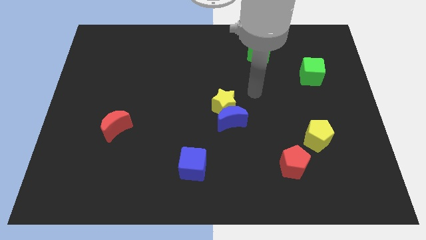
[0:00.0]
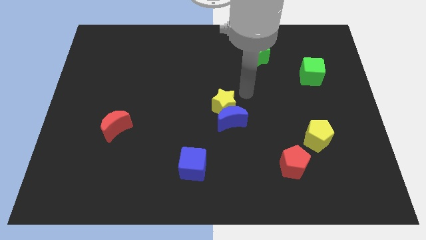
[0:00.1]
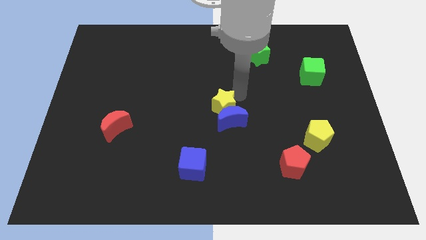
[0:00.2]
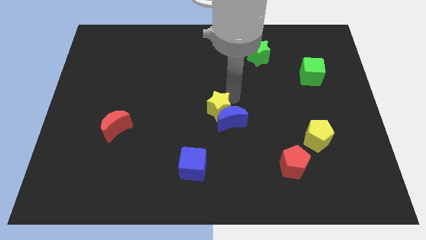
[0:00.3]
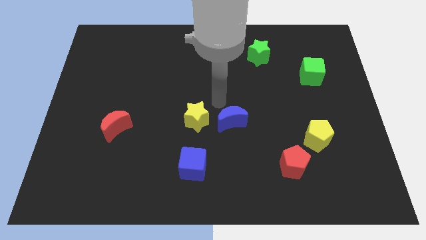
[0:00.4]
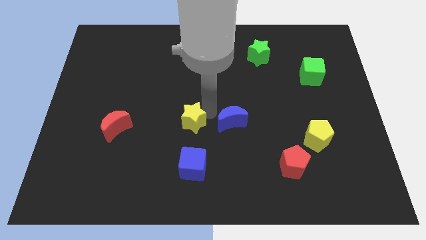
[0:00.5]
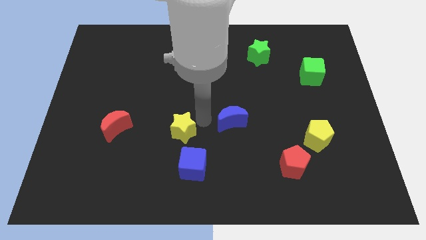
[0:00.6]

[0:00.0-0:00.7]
move the blue moon away from the yellow star

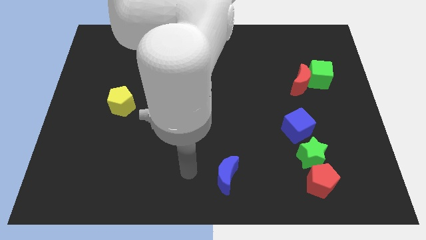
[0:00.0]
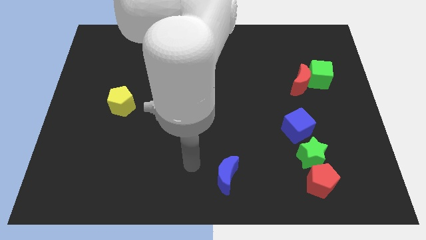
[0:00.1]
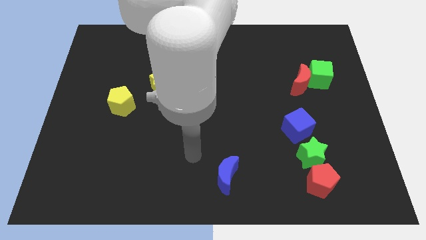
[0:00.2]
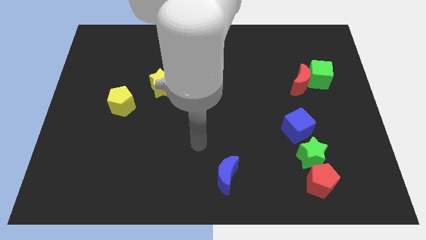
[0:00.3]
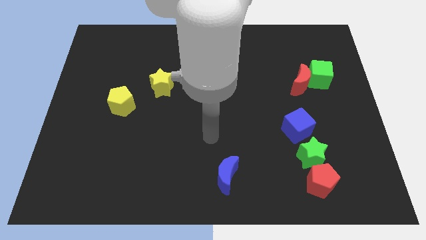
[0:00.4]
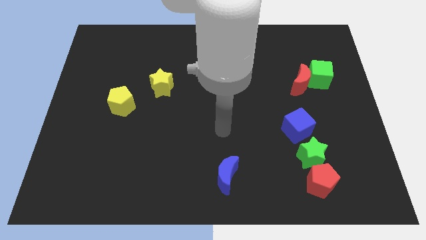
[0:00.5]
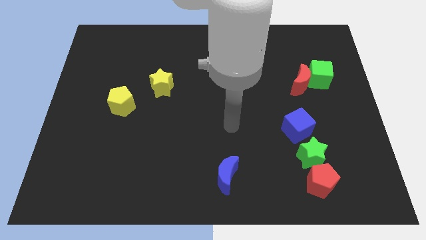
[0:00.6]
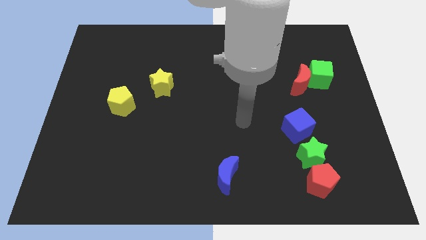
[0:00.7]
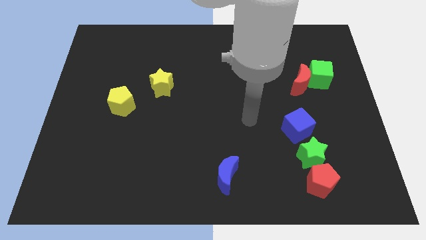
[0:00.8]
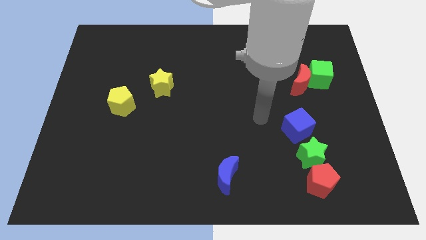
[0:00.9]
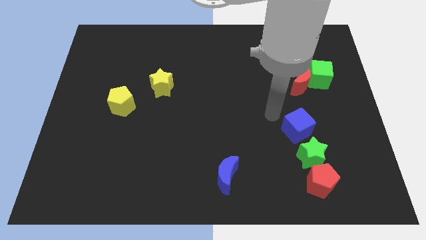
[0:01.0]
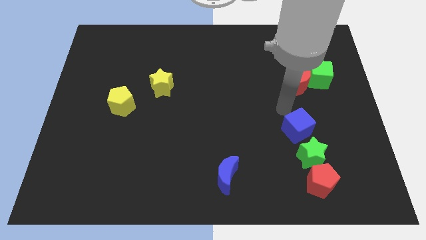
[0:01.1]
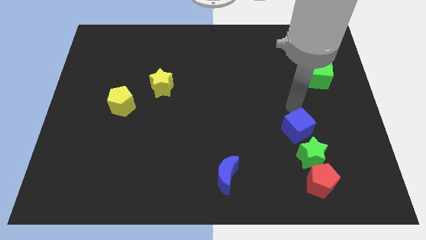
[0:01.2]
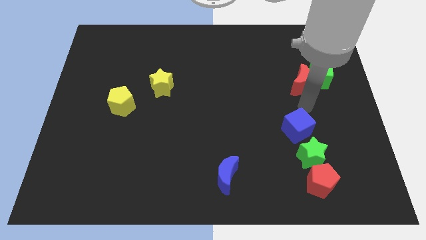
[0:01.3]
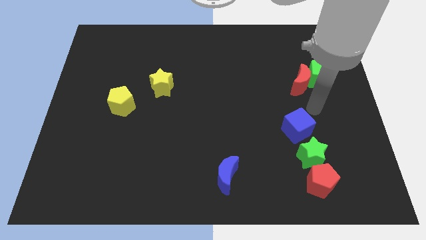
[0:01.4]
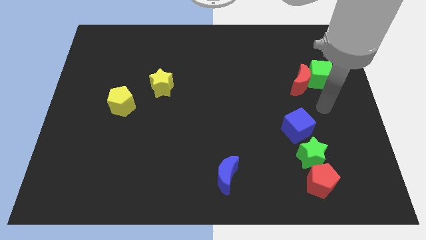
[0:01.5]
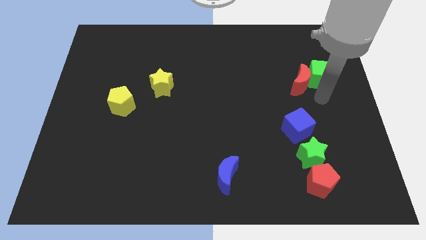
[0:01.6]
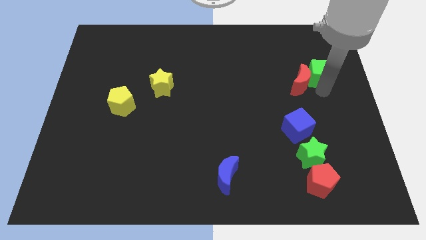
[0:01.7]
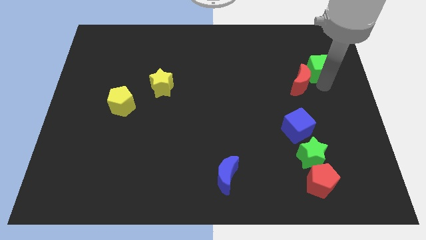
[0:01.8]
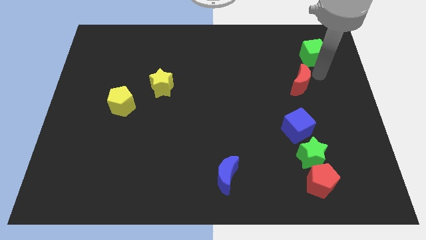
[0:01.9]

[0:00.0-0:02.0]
separate the red moon from the green cube

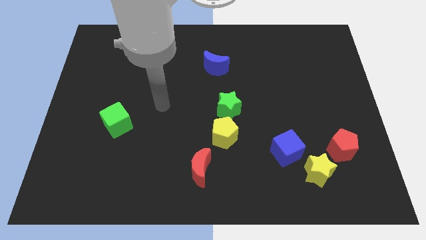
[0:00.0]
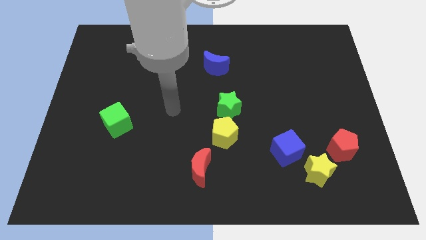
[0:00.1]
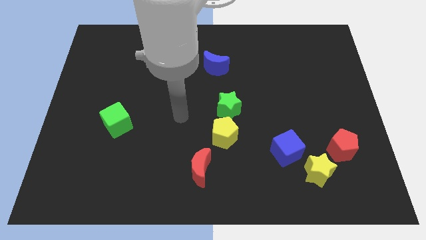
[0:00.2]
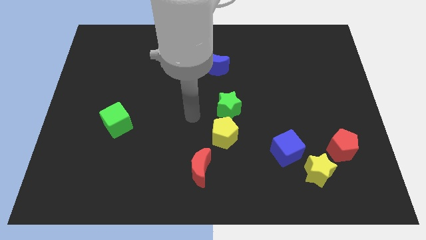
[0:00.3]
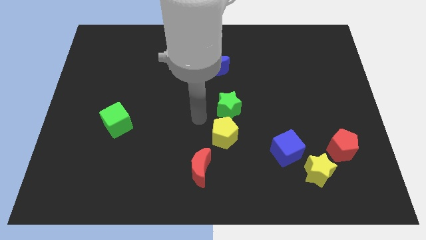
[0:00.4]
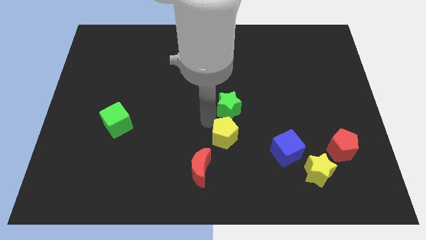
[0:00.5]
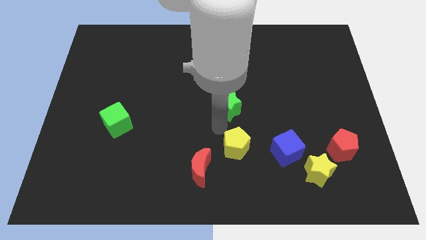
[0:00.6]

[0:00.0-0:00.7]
move the green star away from the yellow pentagon

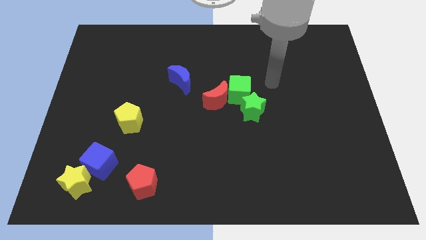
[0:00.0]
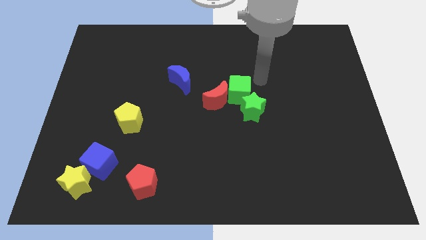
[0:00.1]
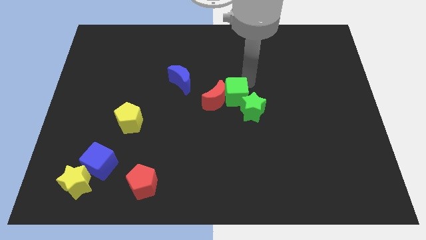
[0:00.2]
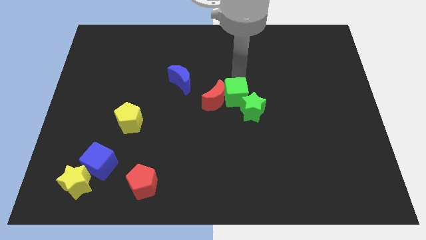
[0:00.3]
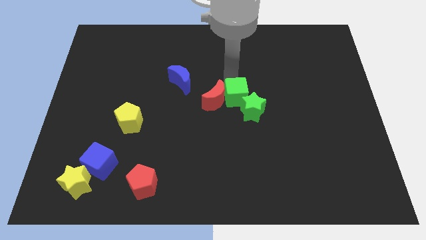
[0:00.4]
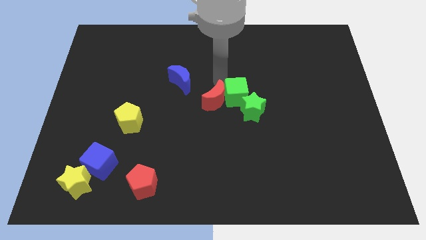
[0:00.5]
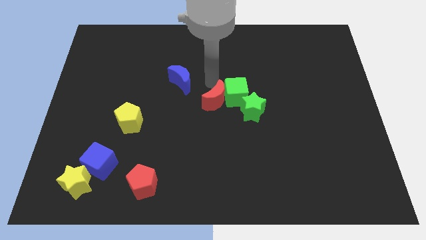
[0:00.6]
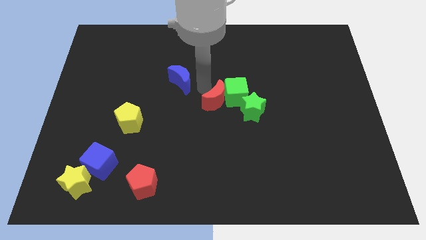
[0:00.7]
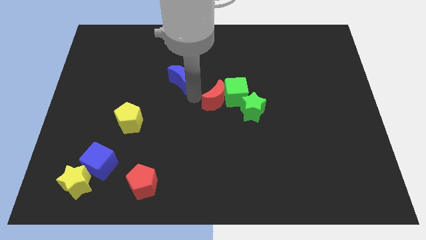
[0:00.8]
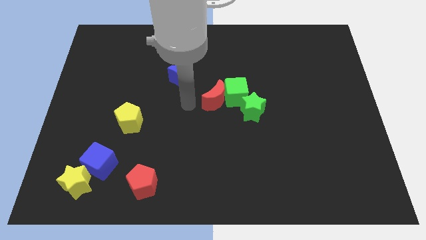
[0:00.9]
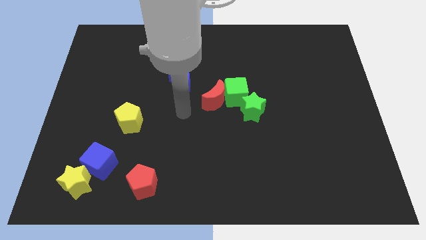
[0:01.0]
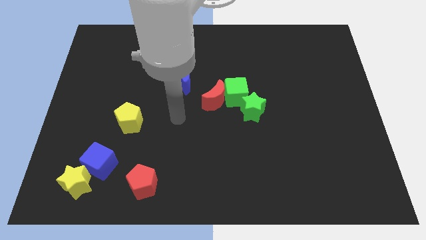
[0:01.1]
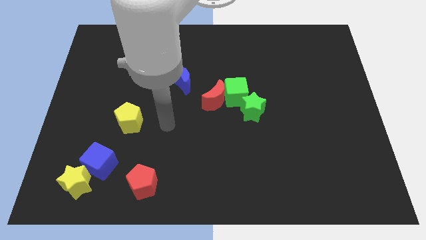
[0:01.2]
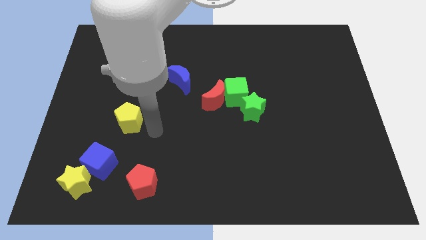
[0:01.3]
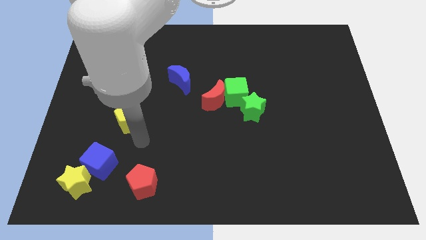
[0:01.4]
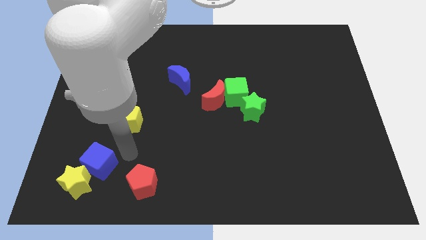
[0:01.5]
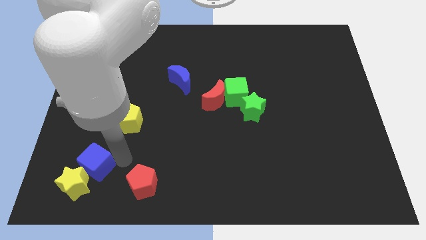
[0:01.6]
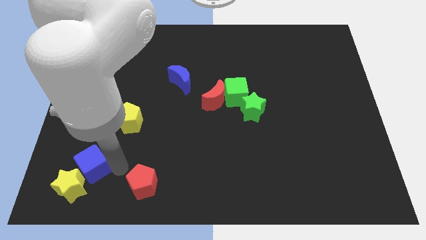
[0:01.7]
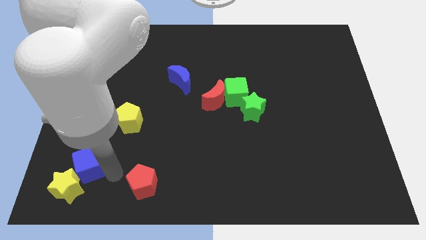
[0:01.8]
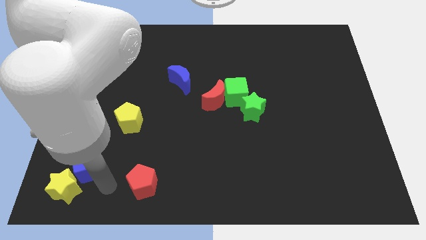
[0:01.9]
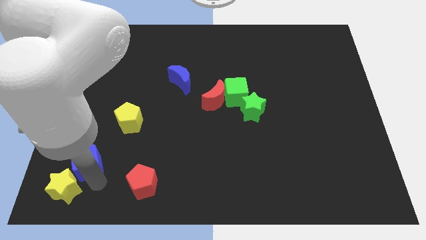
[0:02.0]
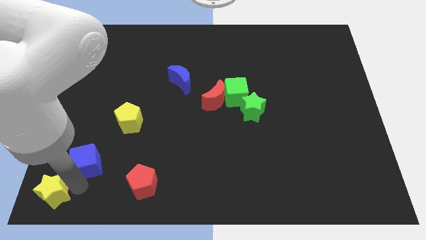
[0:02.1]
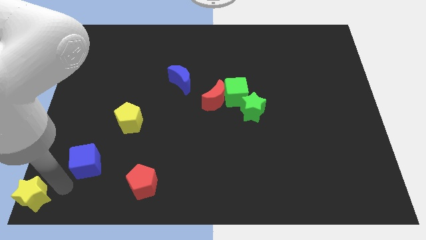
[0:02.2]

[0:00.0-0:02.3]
separate the blue cube from the yellow star

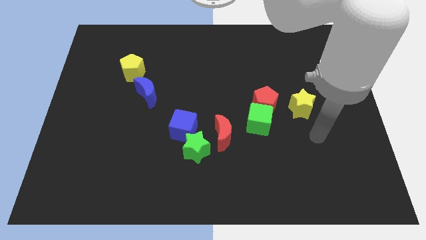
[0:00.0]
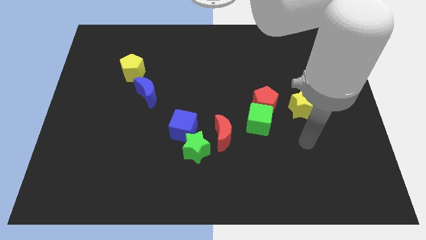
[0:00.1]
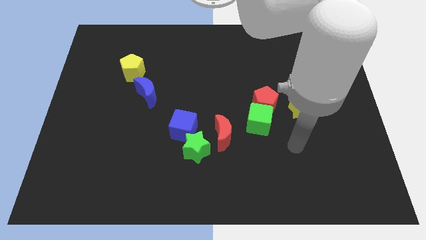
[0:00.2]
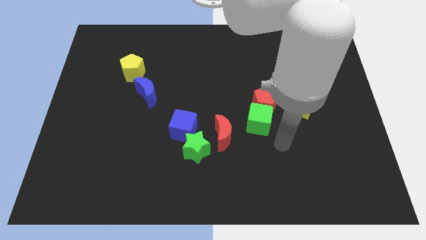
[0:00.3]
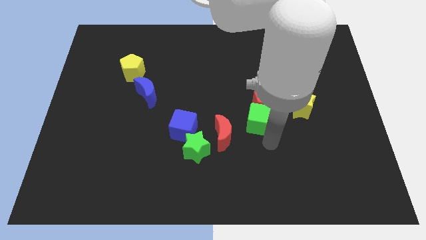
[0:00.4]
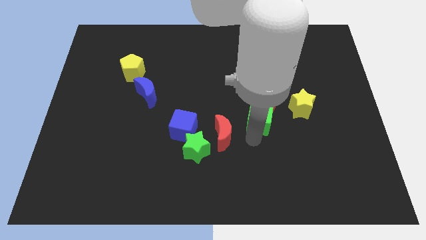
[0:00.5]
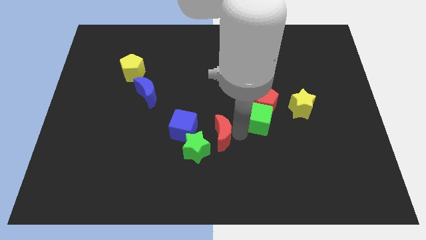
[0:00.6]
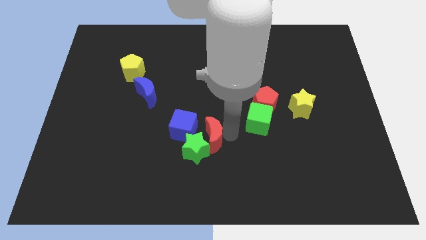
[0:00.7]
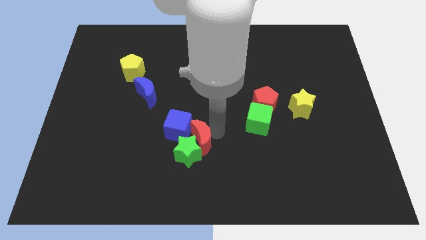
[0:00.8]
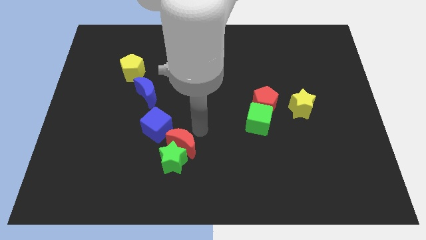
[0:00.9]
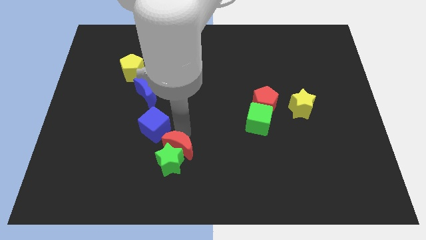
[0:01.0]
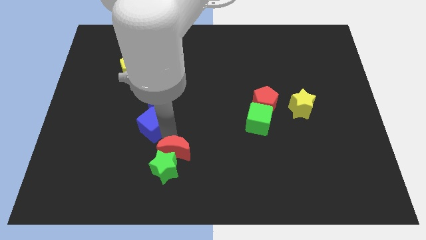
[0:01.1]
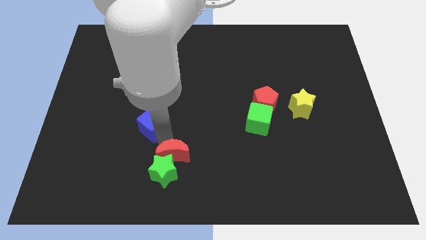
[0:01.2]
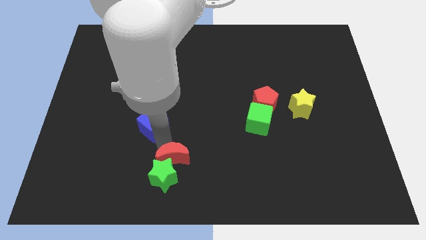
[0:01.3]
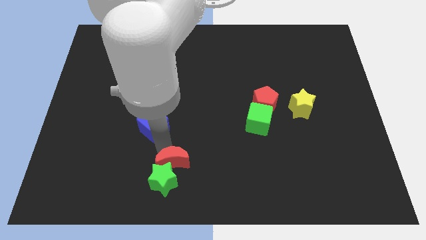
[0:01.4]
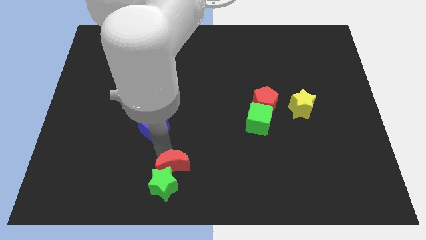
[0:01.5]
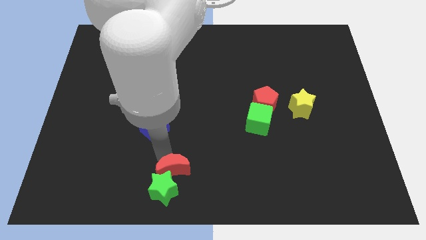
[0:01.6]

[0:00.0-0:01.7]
pull the green star apart from the blue cube and red moon

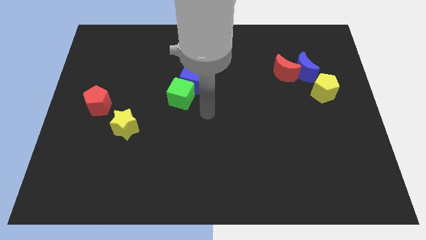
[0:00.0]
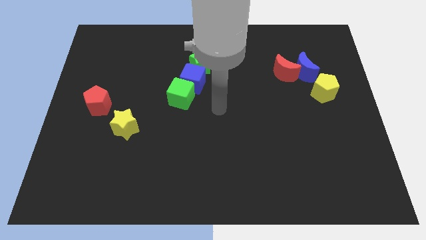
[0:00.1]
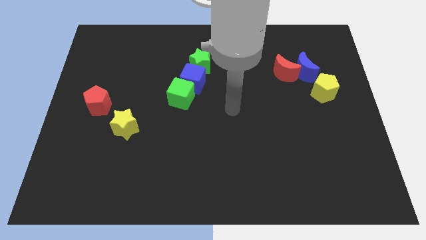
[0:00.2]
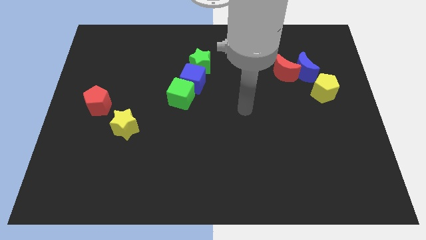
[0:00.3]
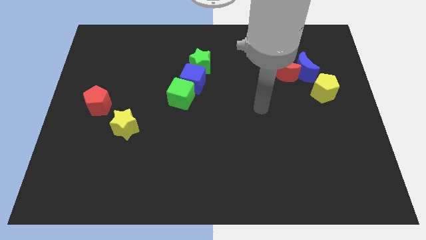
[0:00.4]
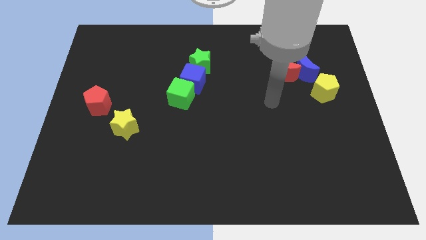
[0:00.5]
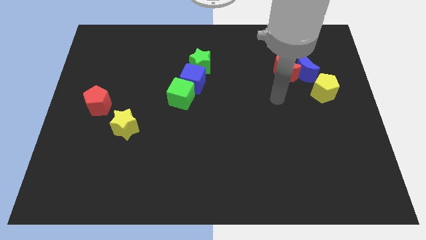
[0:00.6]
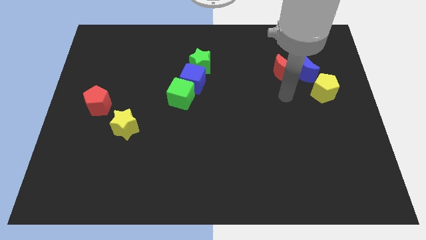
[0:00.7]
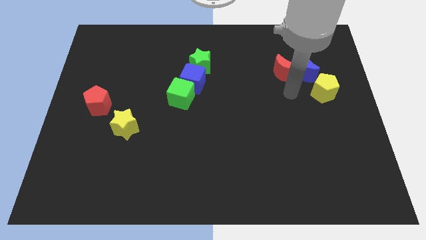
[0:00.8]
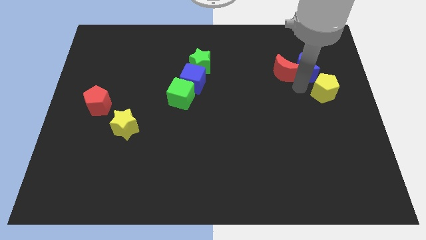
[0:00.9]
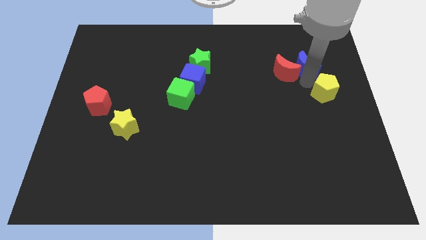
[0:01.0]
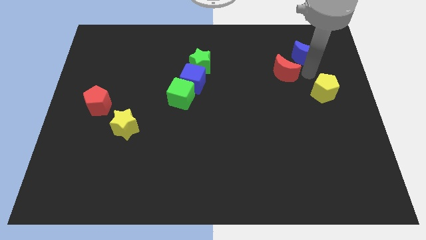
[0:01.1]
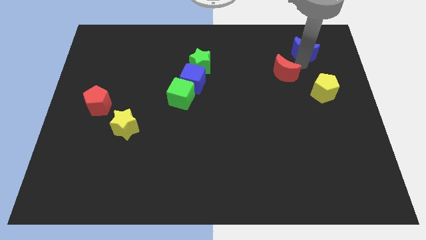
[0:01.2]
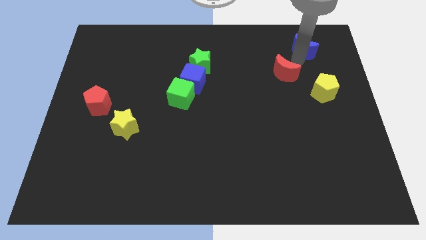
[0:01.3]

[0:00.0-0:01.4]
separate the red moon from the blue moon

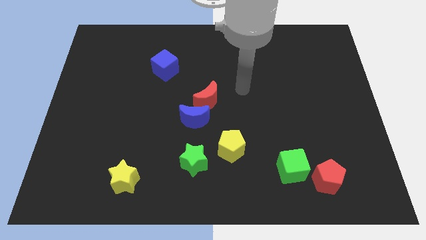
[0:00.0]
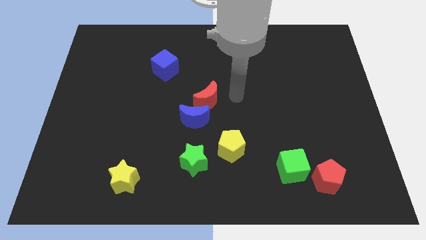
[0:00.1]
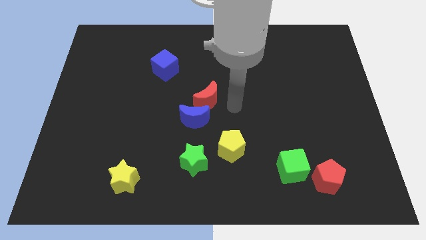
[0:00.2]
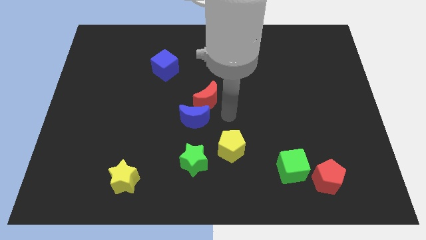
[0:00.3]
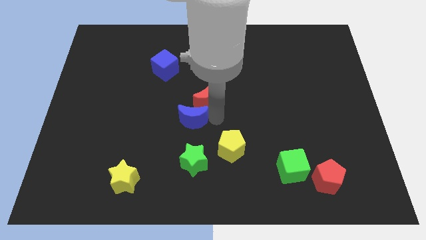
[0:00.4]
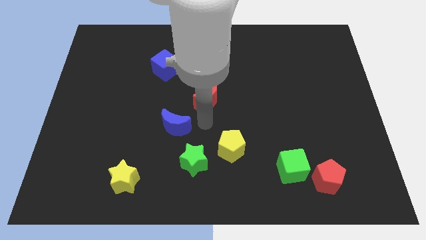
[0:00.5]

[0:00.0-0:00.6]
move the red moon away from the blue moon

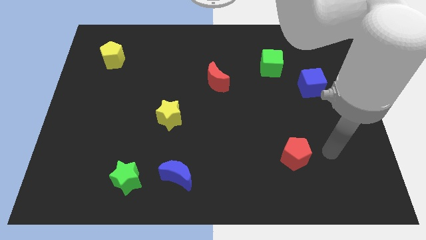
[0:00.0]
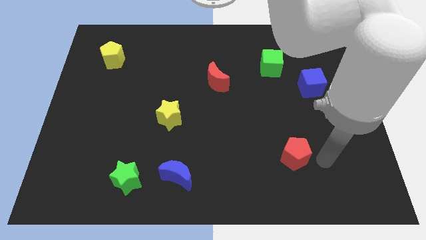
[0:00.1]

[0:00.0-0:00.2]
move the blue moon away from the green star
